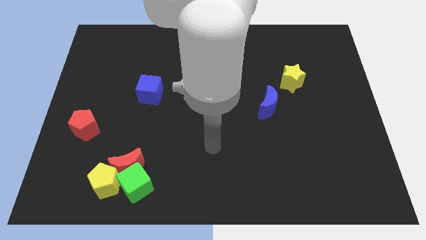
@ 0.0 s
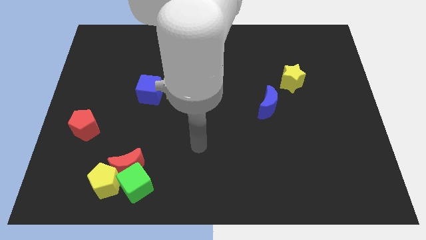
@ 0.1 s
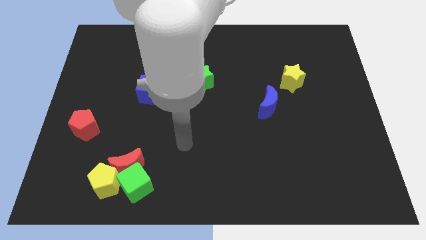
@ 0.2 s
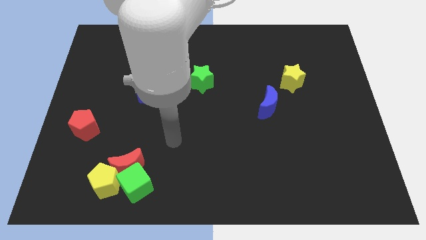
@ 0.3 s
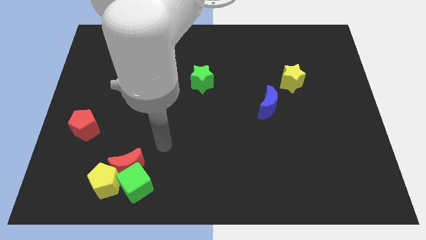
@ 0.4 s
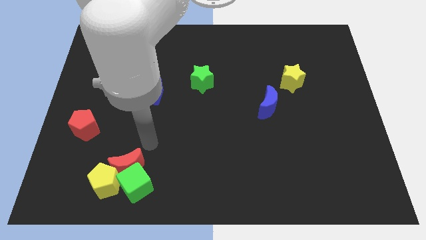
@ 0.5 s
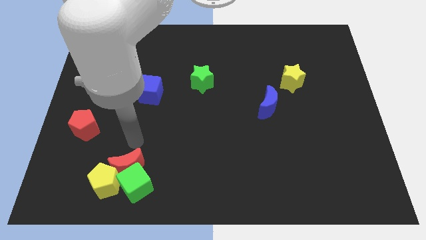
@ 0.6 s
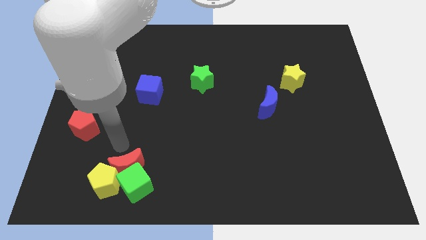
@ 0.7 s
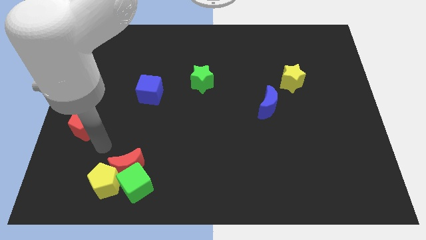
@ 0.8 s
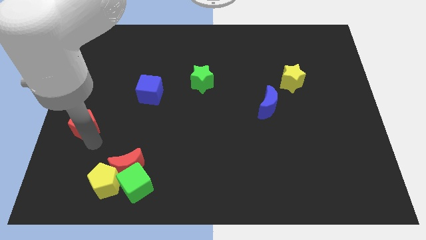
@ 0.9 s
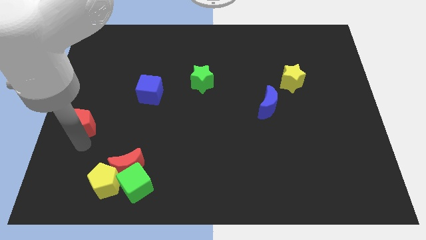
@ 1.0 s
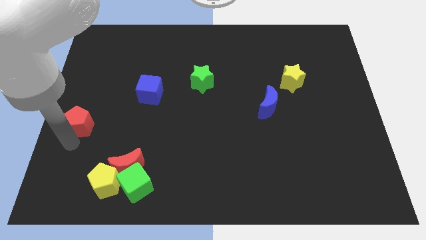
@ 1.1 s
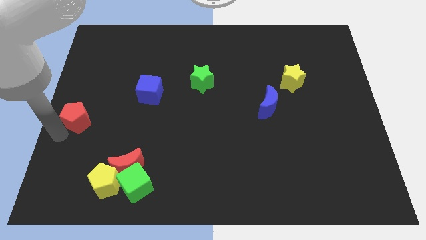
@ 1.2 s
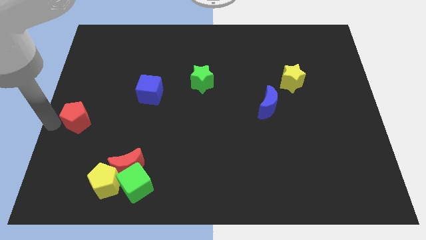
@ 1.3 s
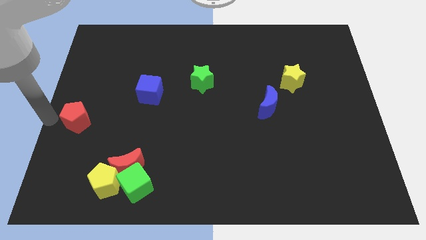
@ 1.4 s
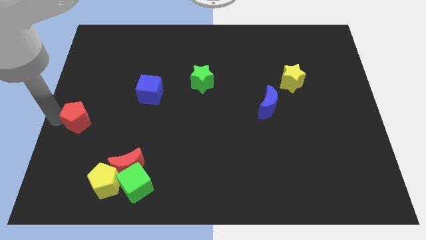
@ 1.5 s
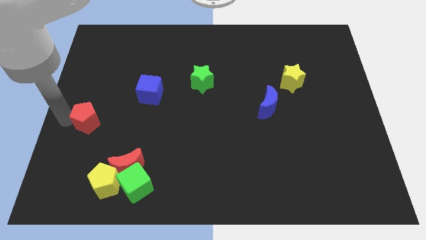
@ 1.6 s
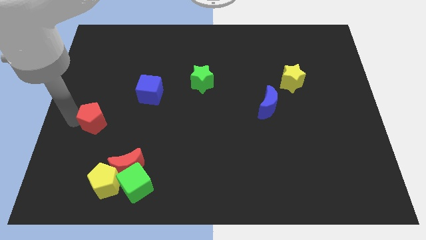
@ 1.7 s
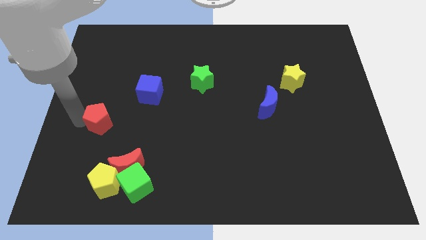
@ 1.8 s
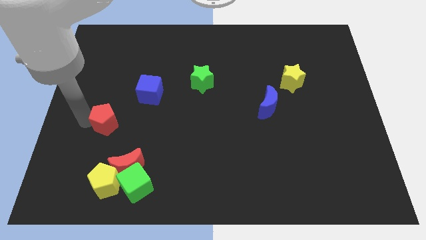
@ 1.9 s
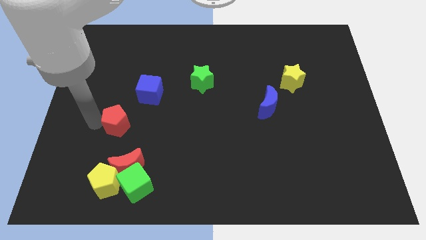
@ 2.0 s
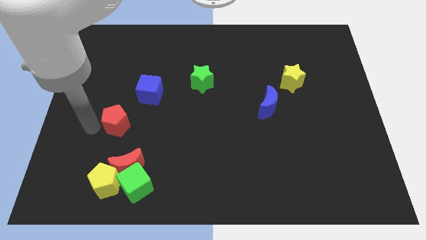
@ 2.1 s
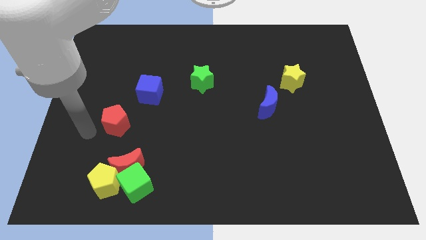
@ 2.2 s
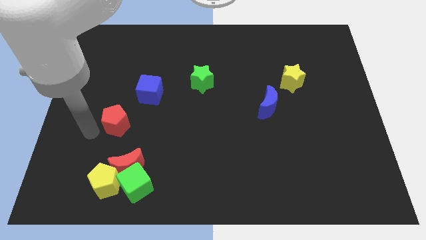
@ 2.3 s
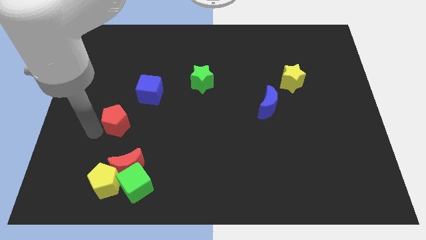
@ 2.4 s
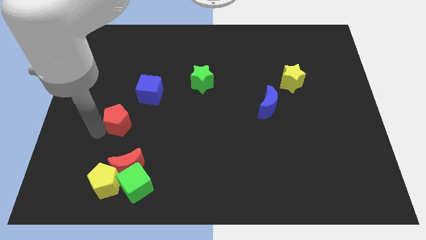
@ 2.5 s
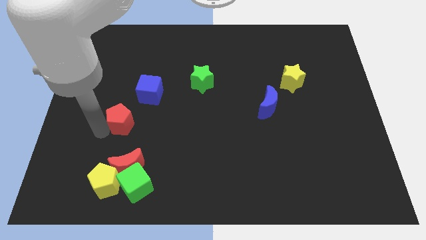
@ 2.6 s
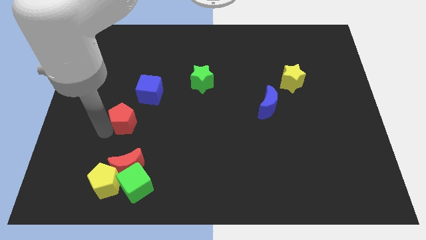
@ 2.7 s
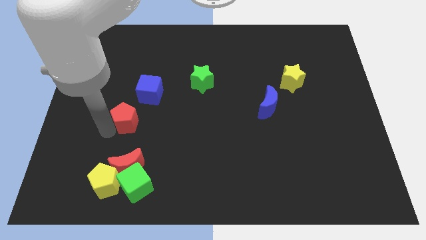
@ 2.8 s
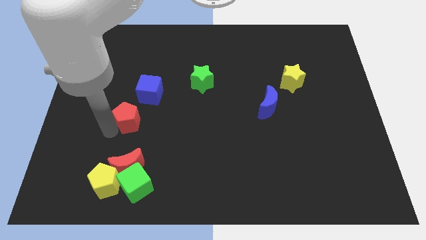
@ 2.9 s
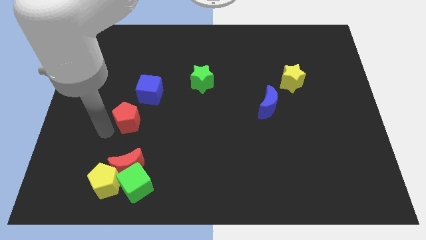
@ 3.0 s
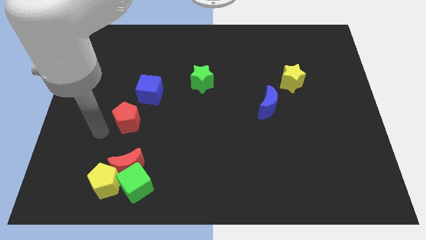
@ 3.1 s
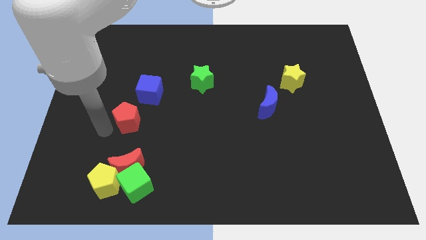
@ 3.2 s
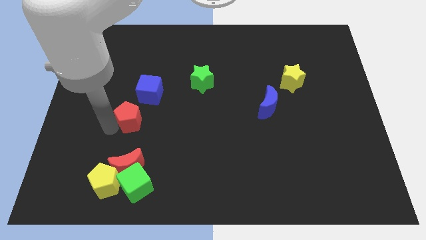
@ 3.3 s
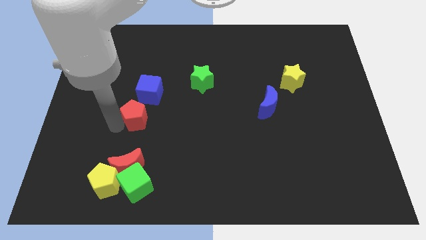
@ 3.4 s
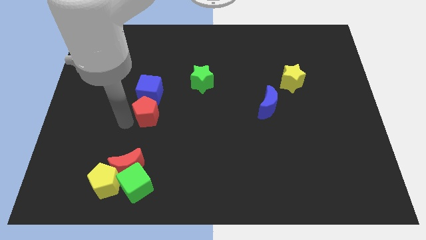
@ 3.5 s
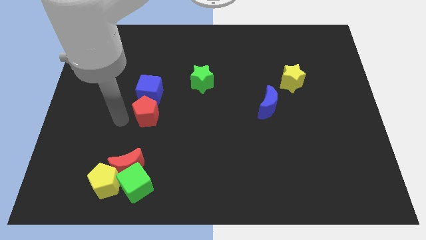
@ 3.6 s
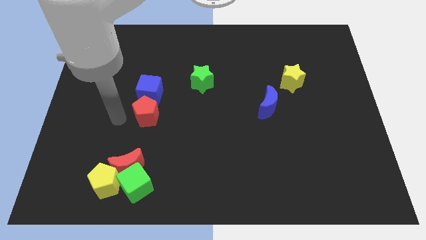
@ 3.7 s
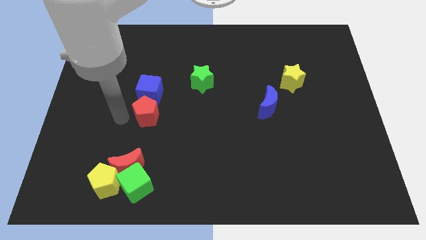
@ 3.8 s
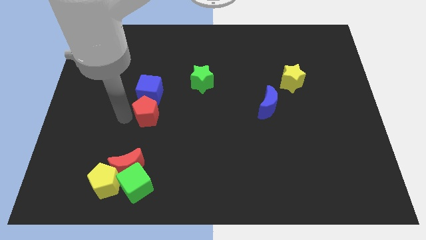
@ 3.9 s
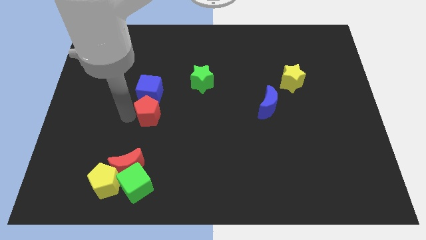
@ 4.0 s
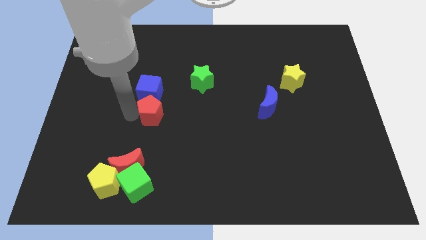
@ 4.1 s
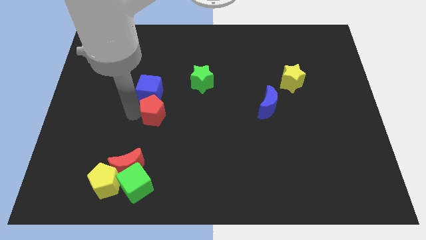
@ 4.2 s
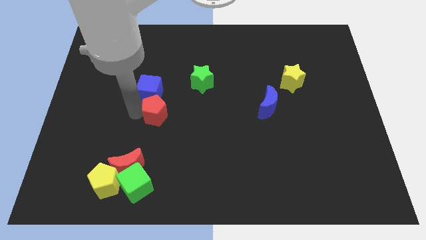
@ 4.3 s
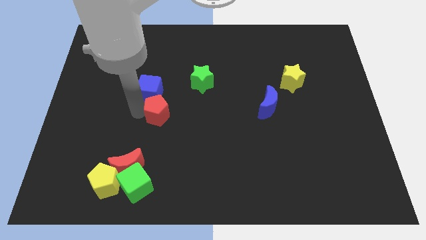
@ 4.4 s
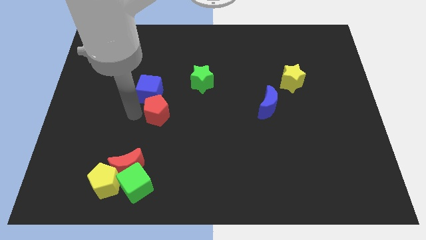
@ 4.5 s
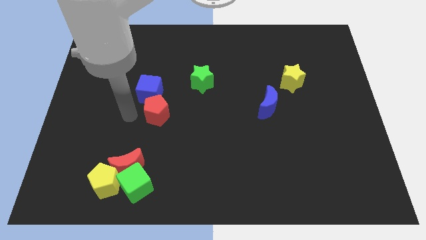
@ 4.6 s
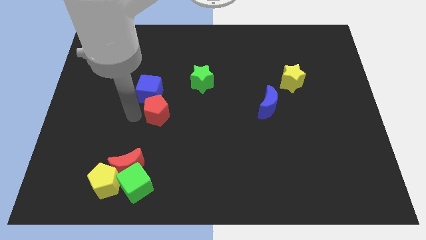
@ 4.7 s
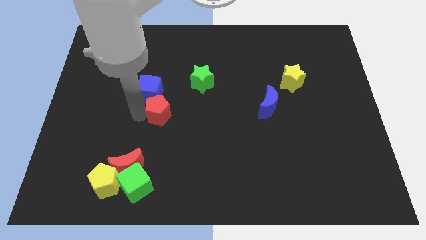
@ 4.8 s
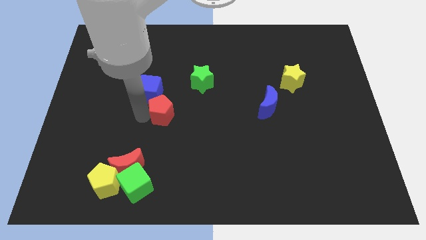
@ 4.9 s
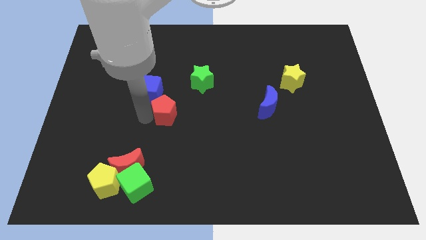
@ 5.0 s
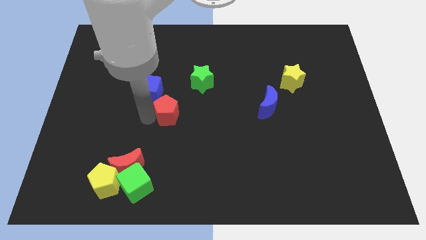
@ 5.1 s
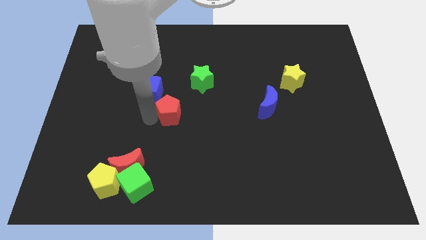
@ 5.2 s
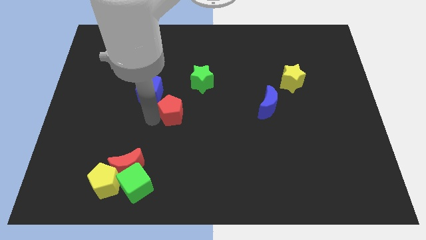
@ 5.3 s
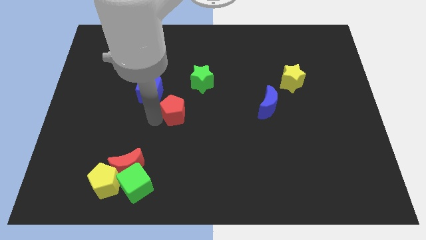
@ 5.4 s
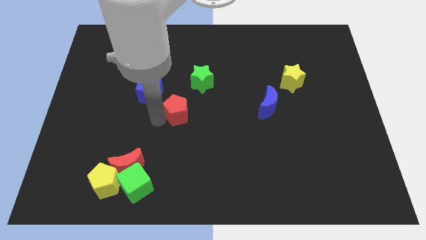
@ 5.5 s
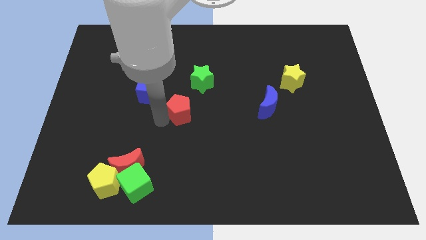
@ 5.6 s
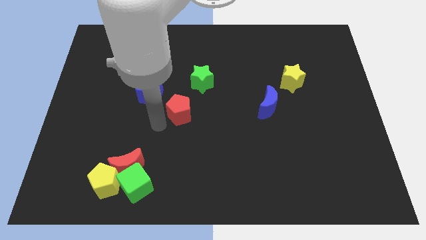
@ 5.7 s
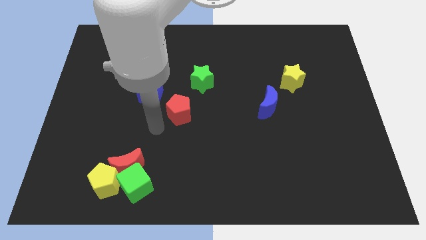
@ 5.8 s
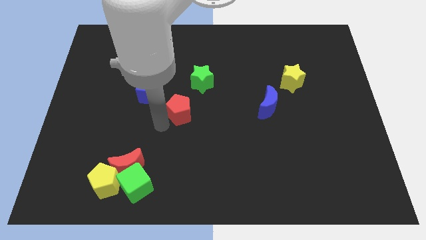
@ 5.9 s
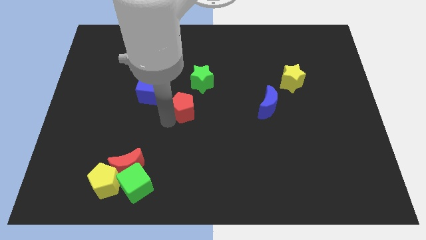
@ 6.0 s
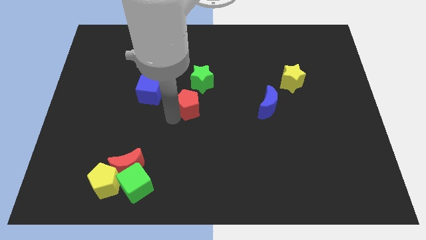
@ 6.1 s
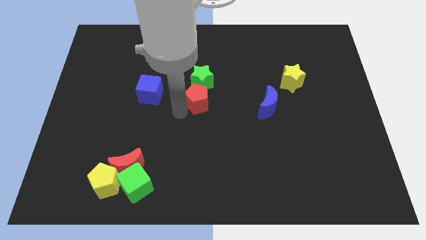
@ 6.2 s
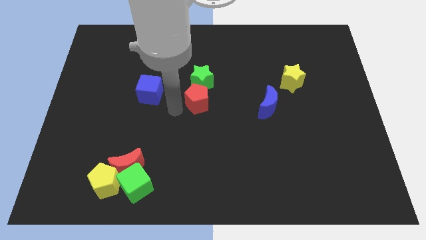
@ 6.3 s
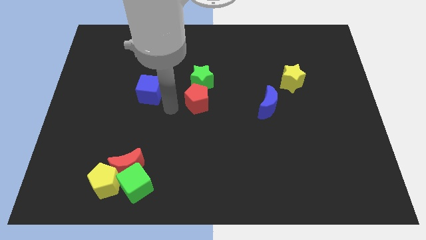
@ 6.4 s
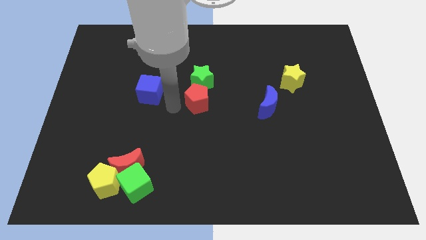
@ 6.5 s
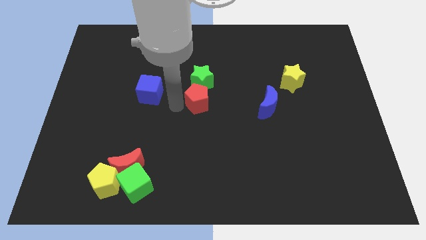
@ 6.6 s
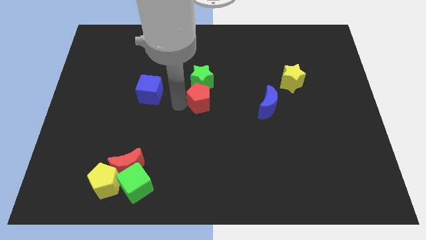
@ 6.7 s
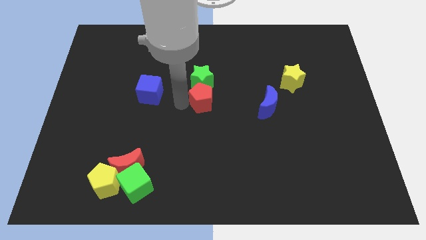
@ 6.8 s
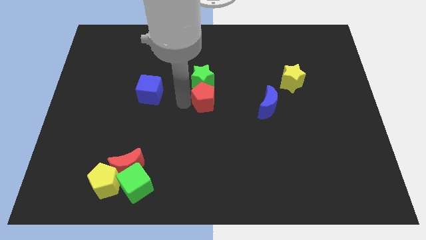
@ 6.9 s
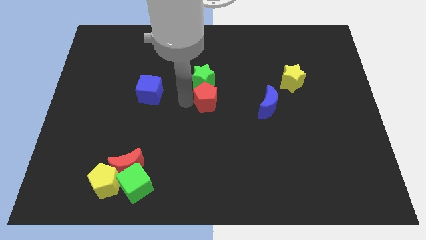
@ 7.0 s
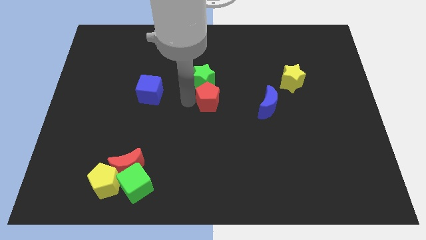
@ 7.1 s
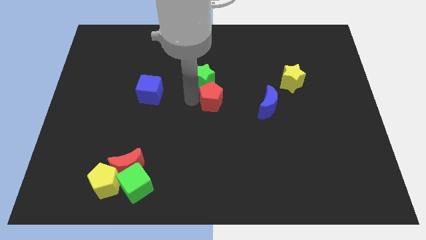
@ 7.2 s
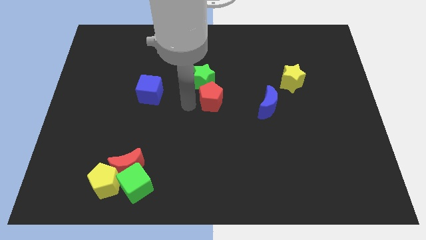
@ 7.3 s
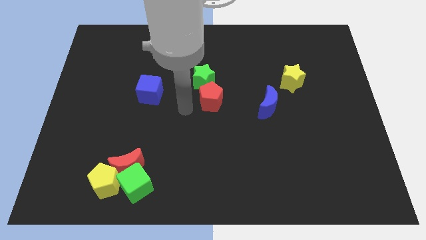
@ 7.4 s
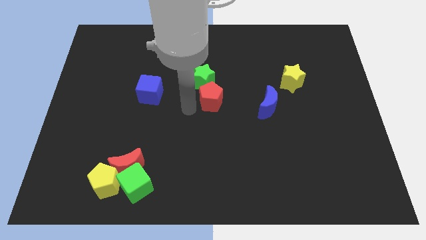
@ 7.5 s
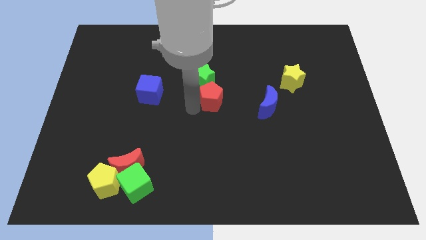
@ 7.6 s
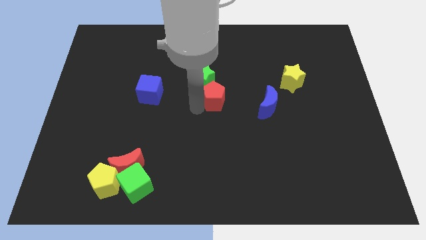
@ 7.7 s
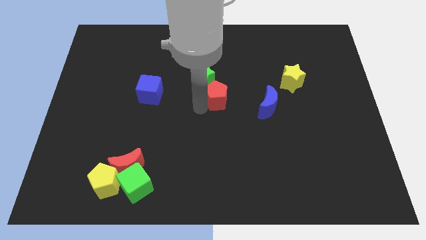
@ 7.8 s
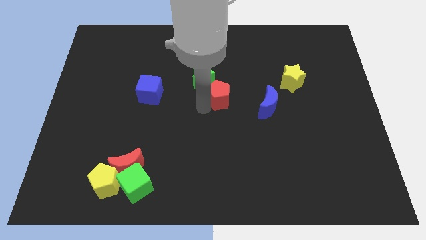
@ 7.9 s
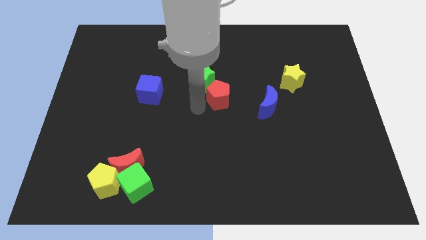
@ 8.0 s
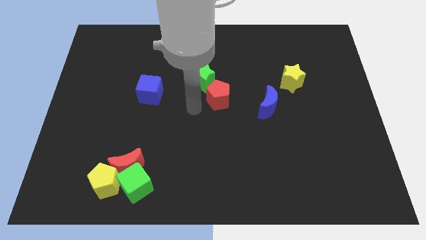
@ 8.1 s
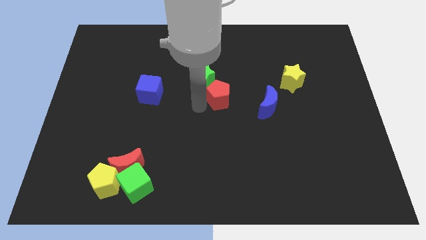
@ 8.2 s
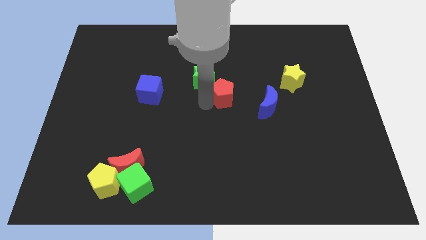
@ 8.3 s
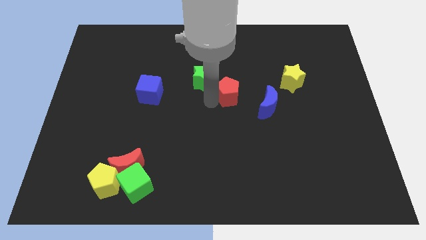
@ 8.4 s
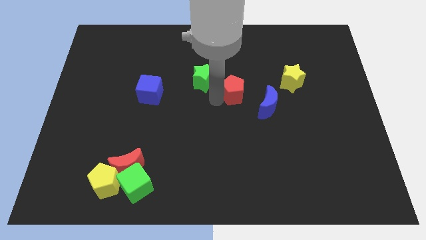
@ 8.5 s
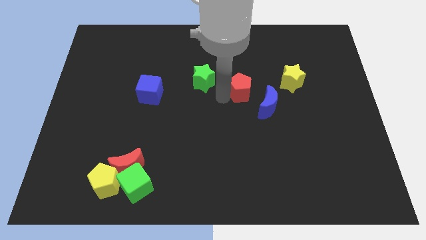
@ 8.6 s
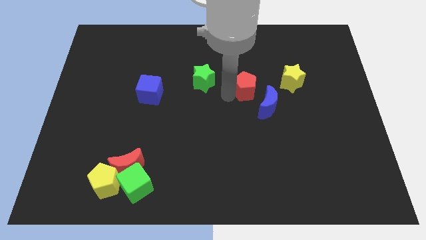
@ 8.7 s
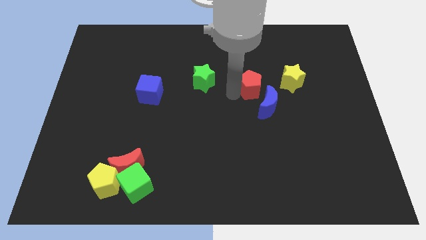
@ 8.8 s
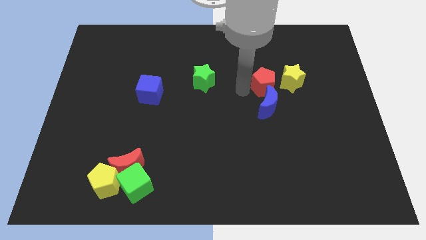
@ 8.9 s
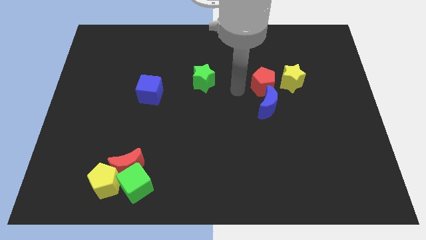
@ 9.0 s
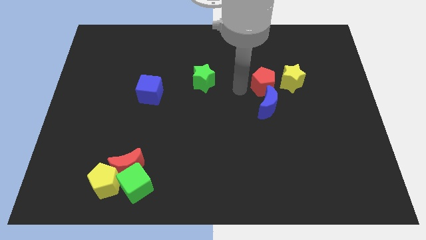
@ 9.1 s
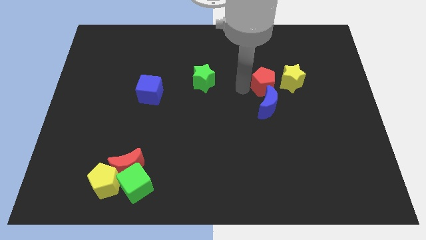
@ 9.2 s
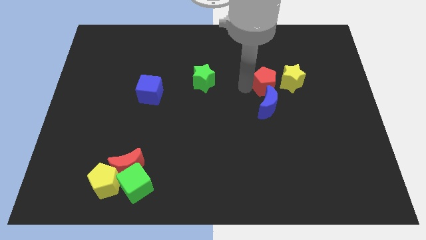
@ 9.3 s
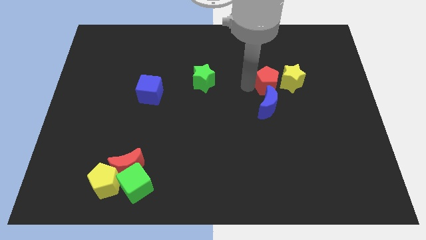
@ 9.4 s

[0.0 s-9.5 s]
push the red pentagon close to the yellow star
